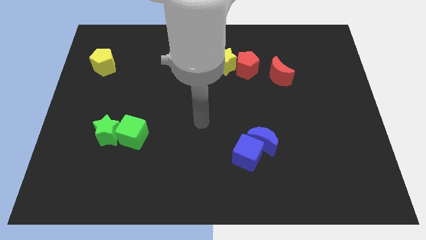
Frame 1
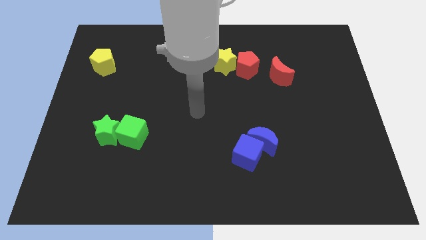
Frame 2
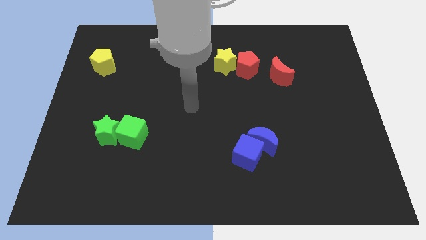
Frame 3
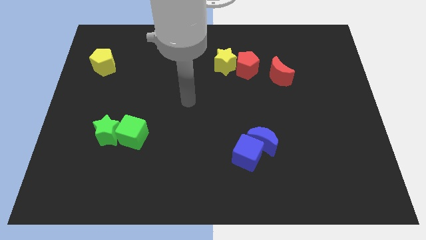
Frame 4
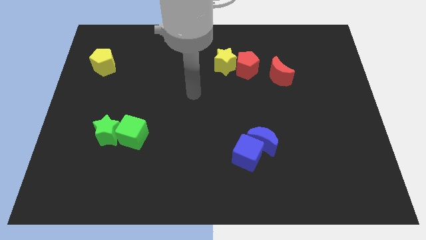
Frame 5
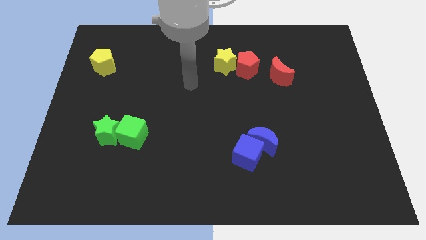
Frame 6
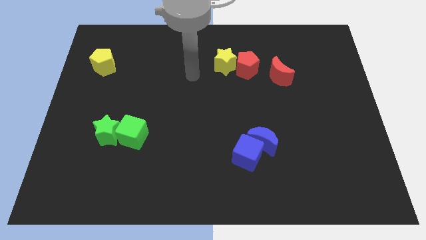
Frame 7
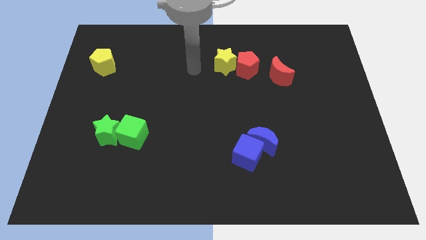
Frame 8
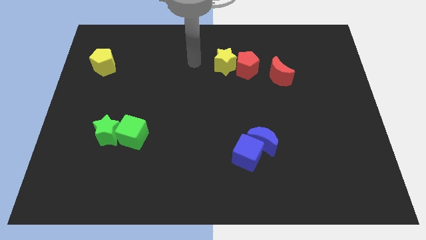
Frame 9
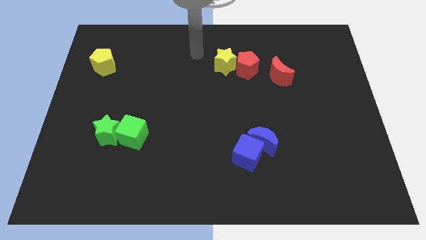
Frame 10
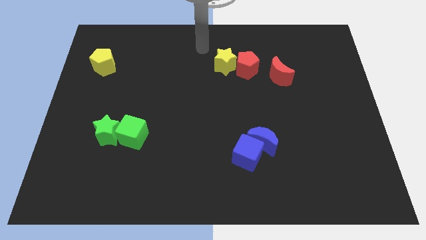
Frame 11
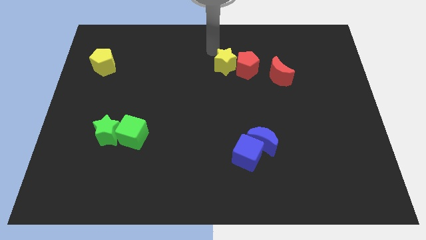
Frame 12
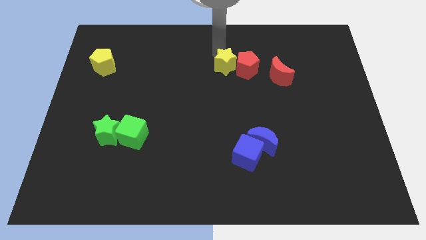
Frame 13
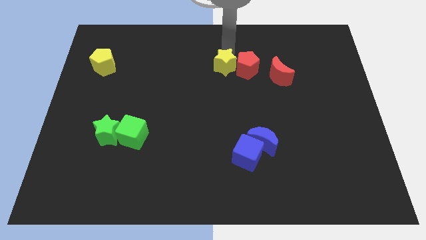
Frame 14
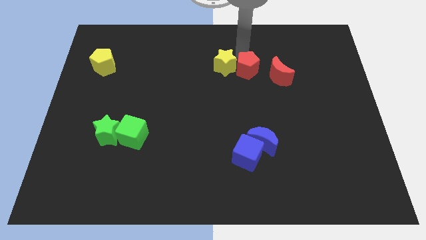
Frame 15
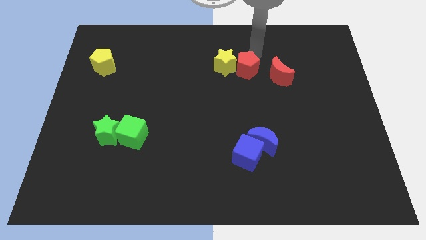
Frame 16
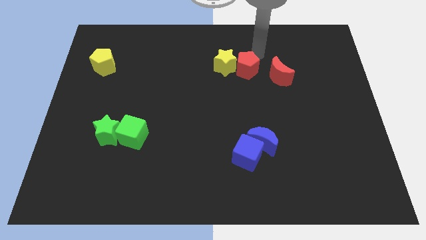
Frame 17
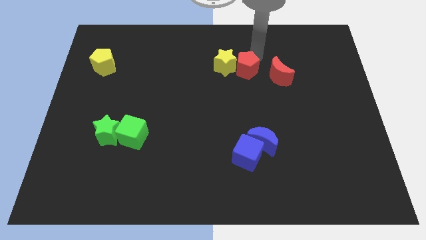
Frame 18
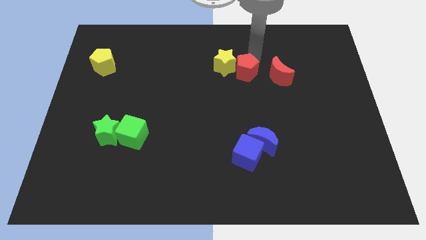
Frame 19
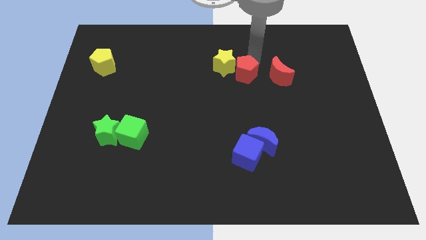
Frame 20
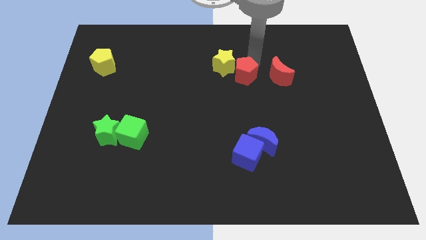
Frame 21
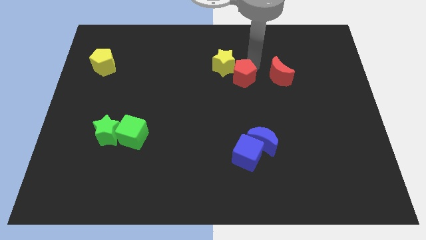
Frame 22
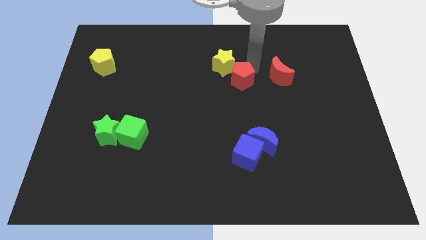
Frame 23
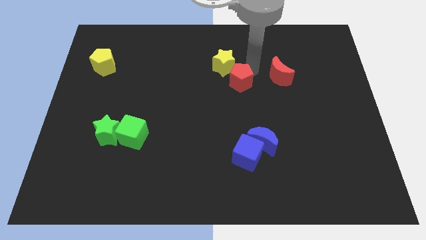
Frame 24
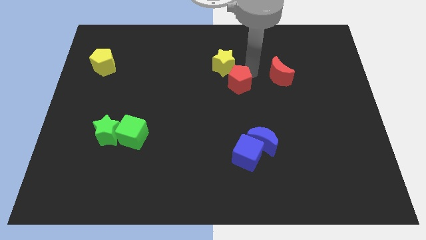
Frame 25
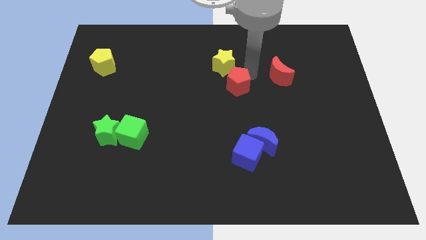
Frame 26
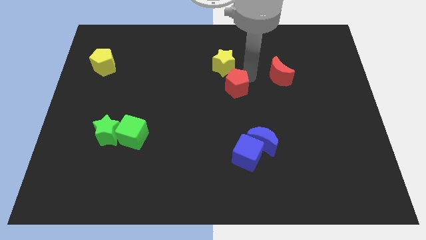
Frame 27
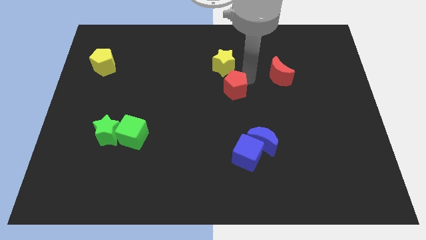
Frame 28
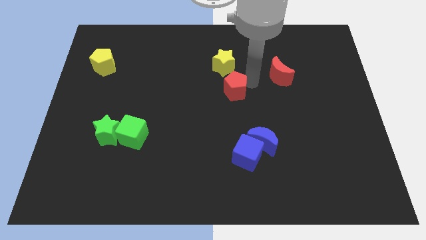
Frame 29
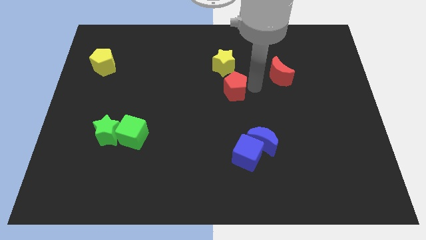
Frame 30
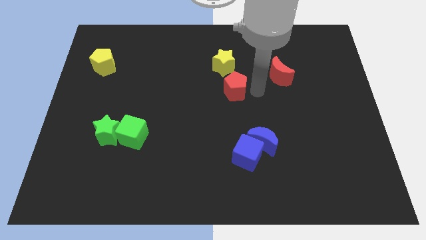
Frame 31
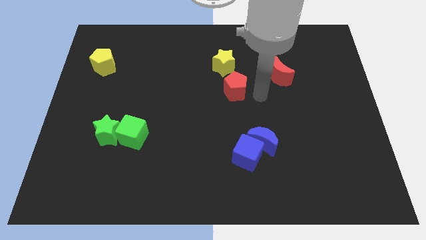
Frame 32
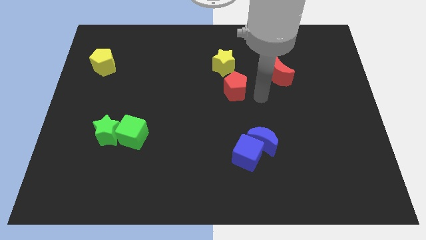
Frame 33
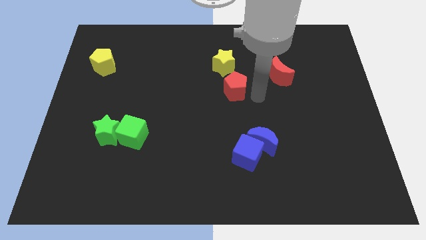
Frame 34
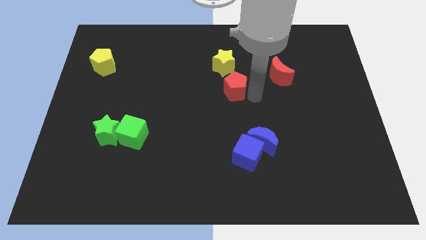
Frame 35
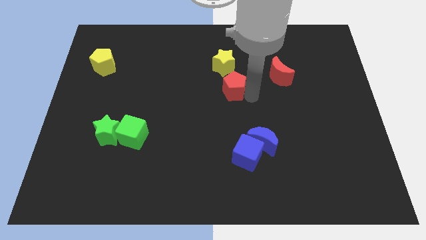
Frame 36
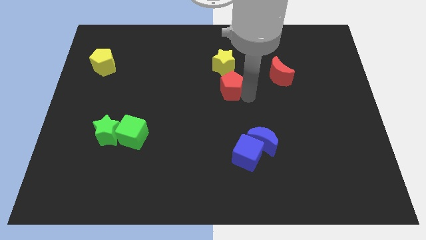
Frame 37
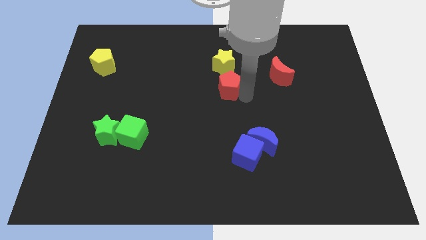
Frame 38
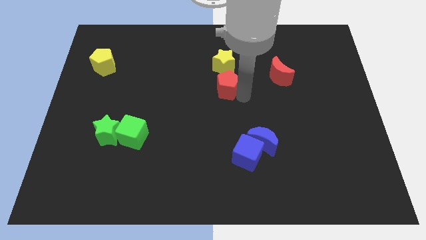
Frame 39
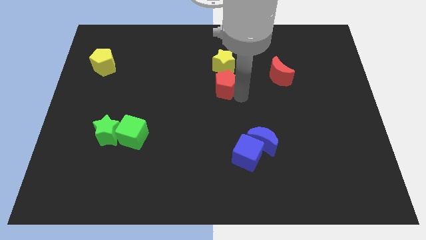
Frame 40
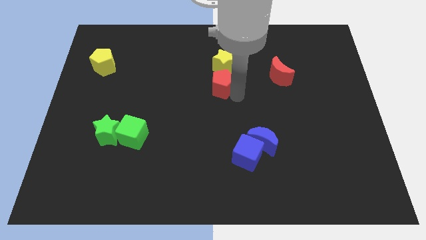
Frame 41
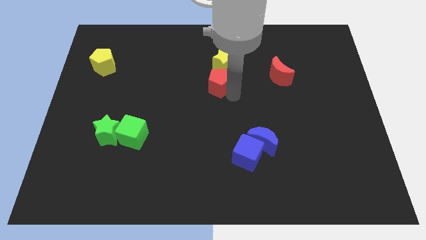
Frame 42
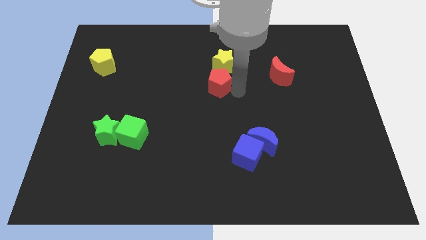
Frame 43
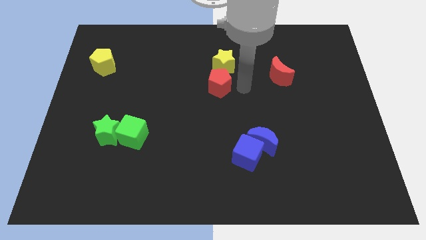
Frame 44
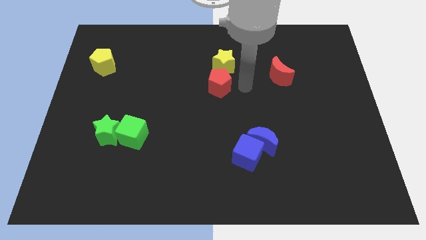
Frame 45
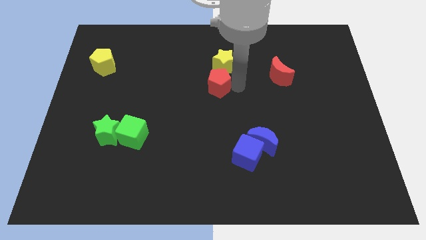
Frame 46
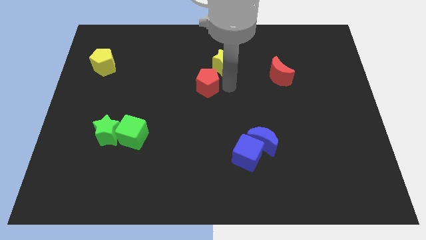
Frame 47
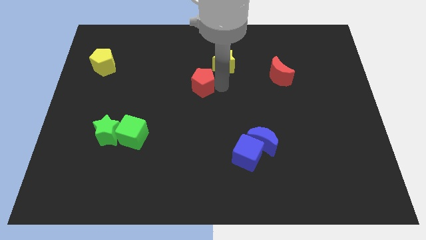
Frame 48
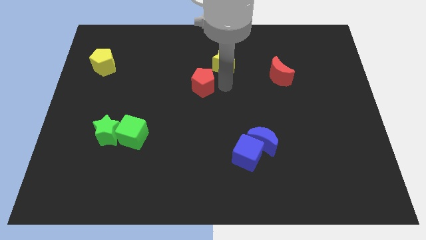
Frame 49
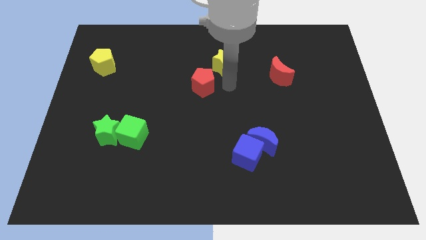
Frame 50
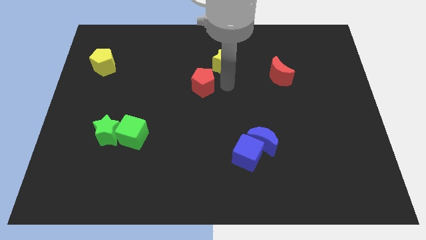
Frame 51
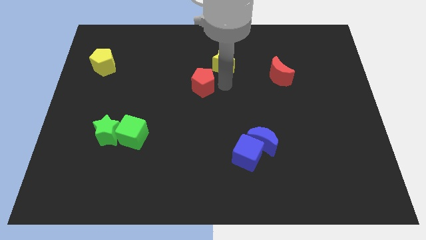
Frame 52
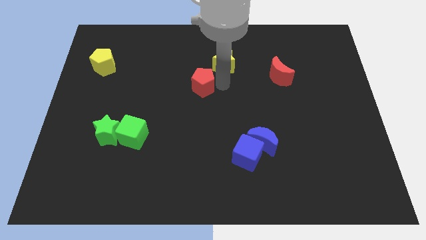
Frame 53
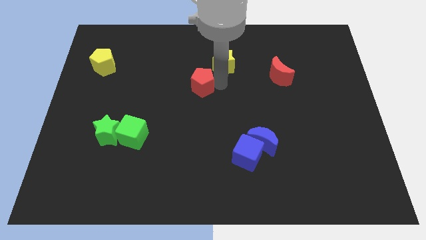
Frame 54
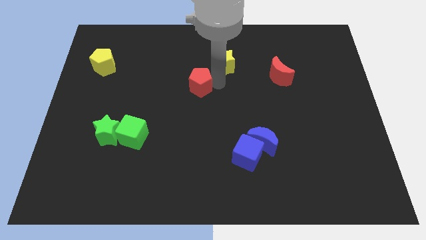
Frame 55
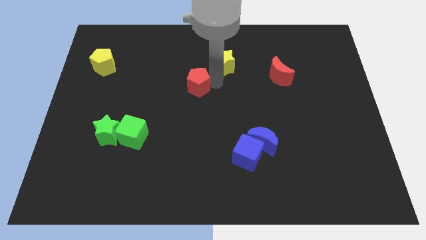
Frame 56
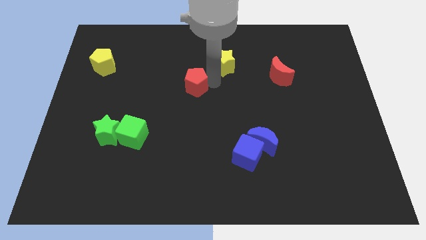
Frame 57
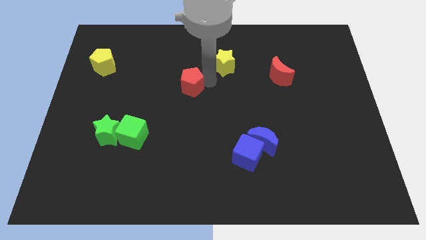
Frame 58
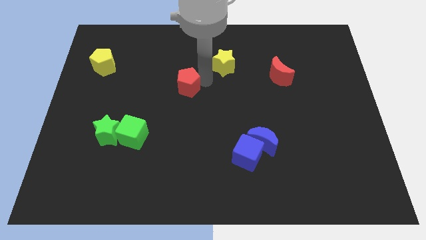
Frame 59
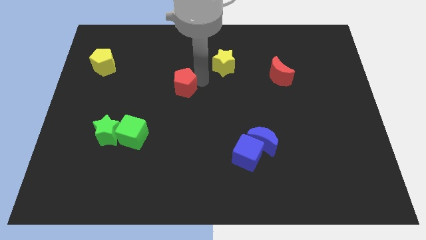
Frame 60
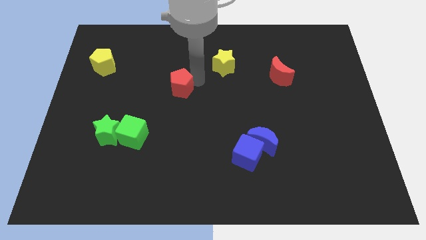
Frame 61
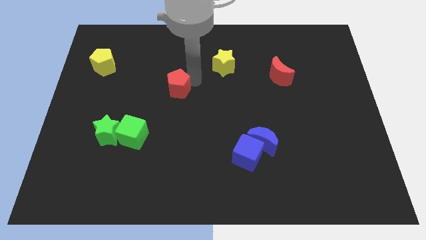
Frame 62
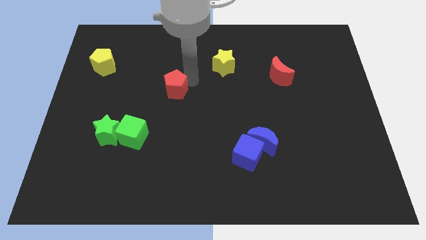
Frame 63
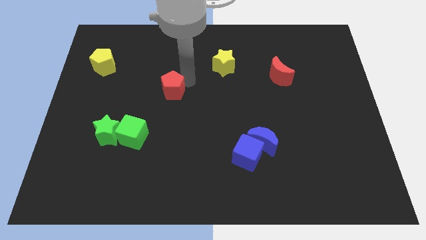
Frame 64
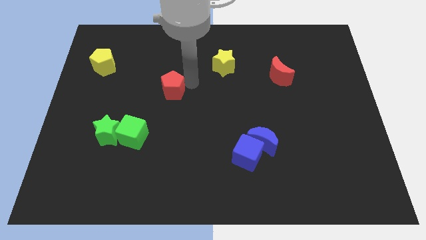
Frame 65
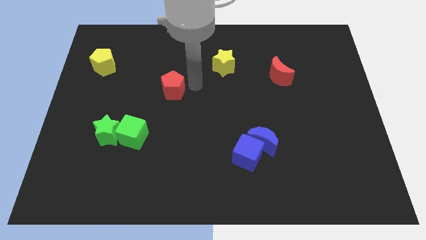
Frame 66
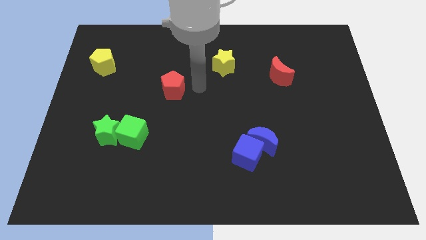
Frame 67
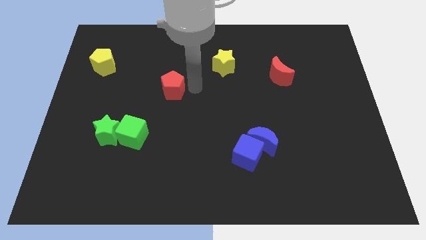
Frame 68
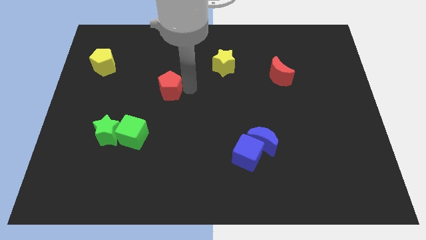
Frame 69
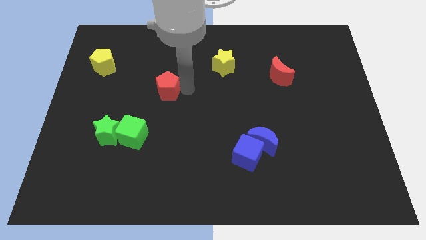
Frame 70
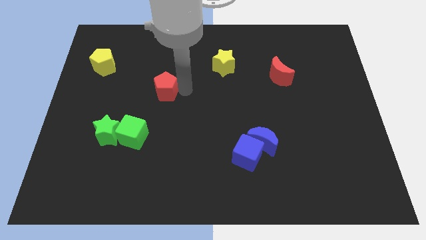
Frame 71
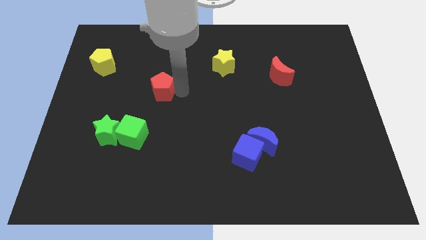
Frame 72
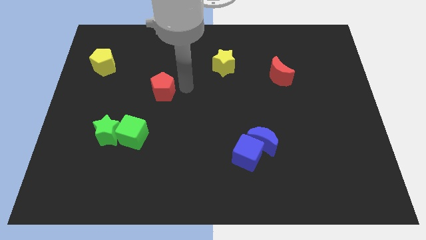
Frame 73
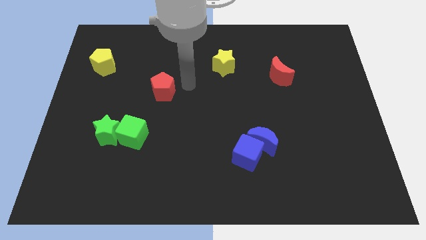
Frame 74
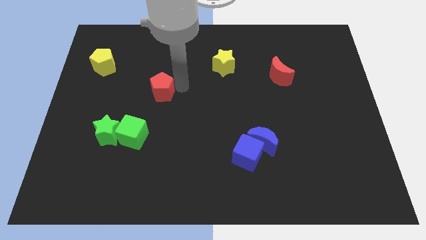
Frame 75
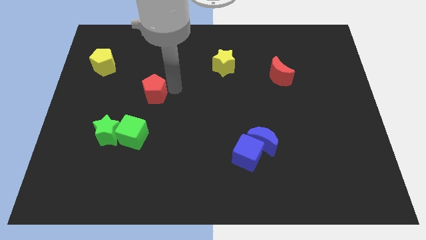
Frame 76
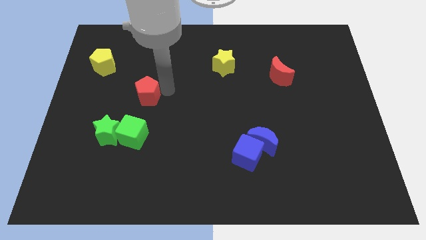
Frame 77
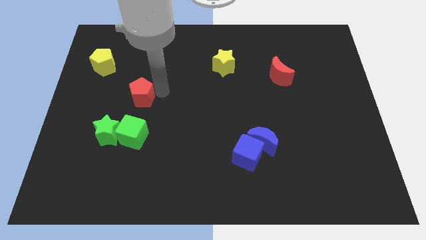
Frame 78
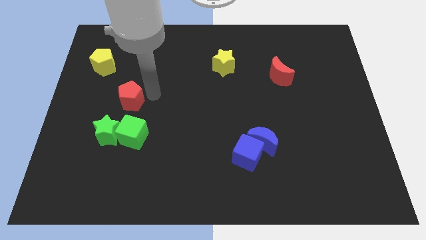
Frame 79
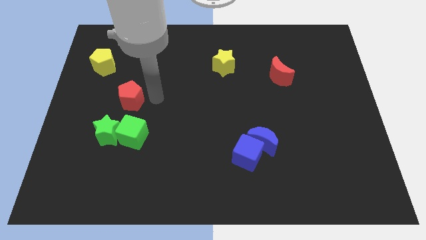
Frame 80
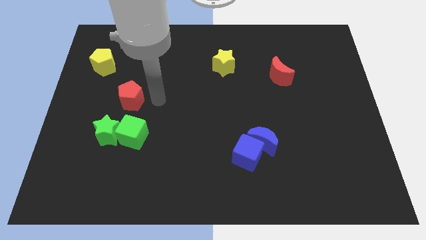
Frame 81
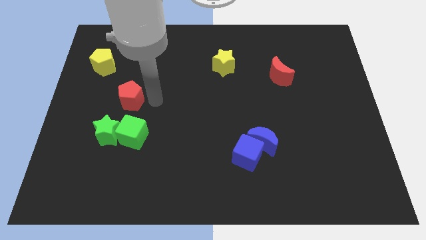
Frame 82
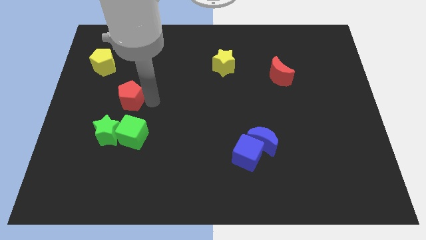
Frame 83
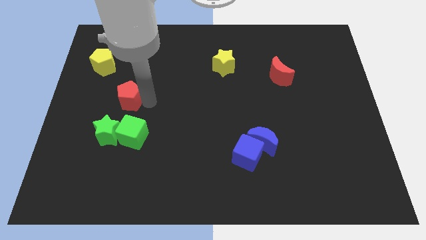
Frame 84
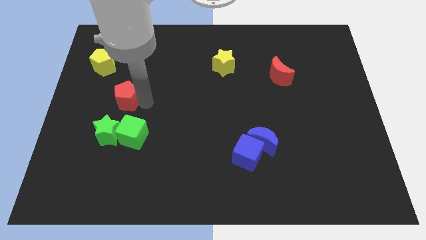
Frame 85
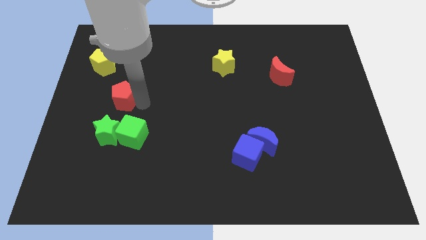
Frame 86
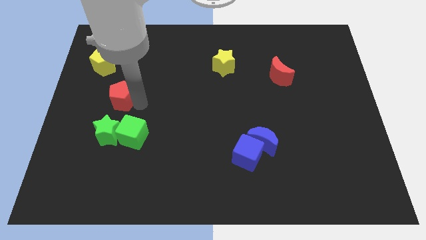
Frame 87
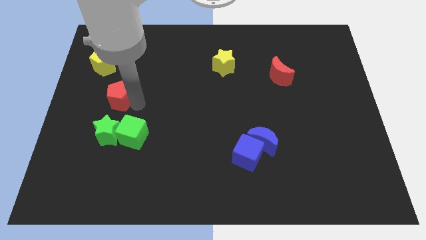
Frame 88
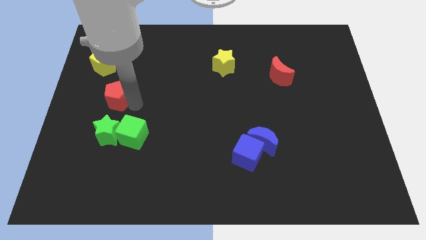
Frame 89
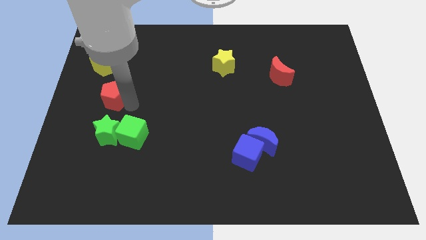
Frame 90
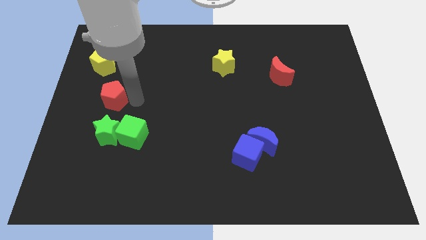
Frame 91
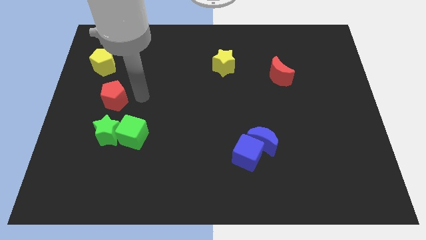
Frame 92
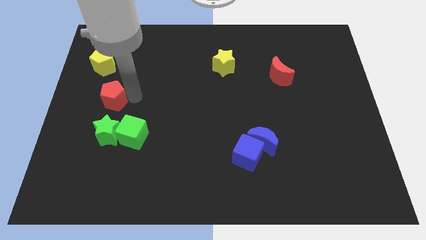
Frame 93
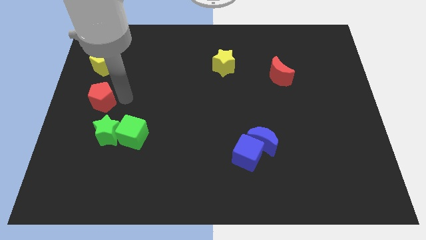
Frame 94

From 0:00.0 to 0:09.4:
push the red pentagon to the center left
